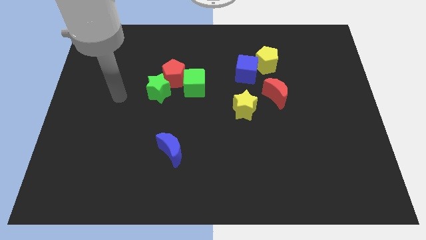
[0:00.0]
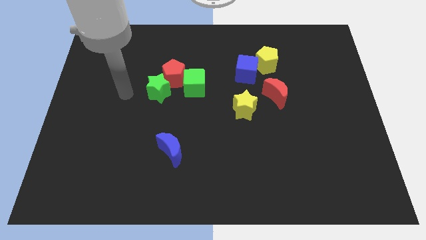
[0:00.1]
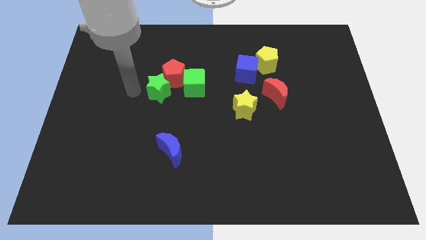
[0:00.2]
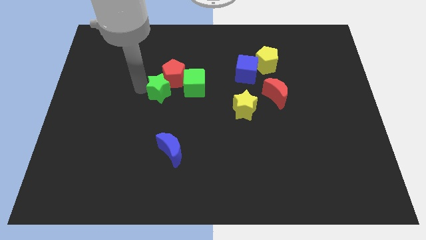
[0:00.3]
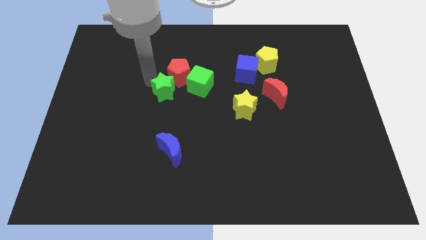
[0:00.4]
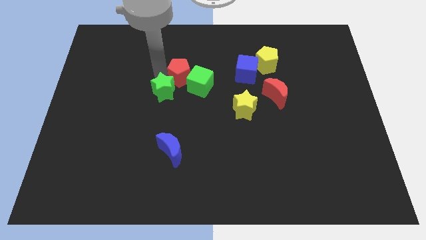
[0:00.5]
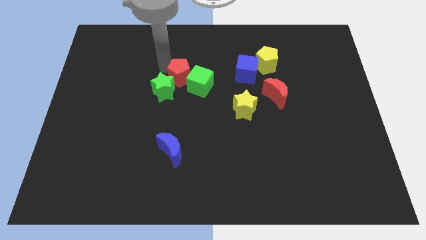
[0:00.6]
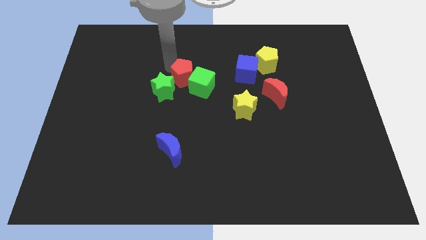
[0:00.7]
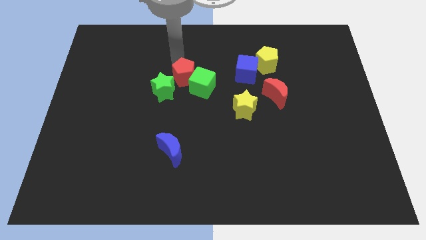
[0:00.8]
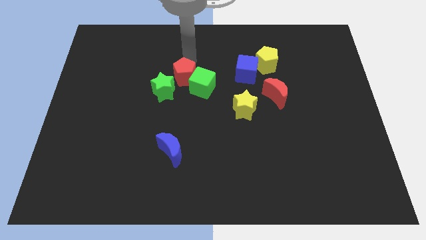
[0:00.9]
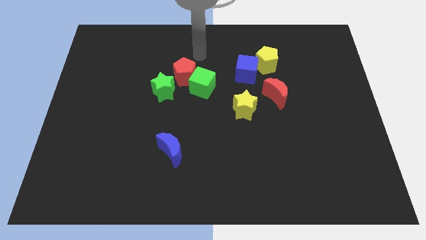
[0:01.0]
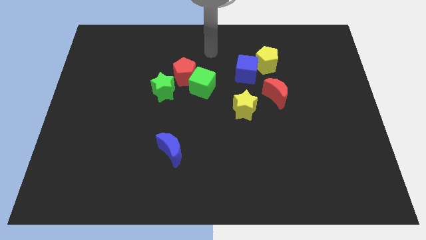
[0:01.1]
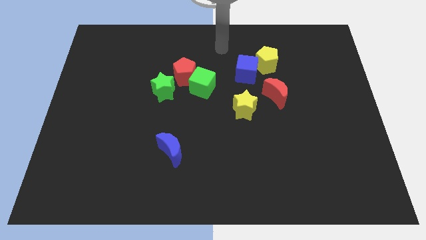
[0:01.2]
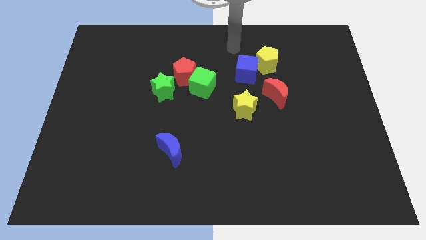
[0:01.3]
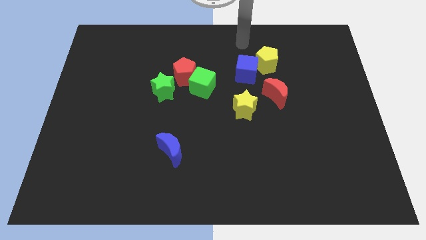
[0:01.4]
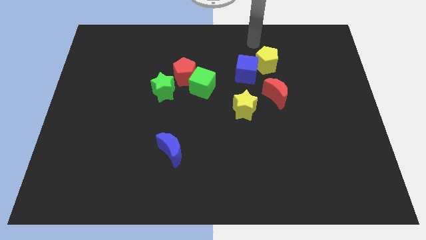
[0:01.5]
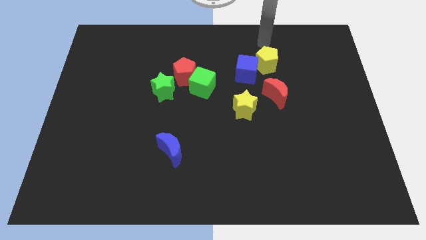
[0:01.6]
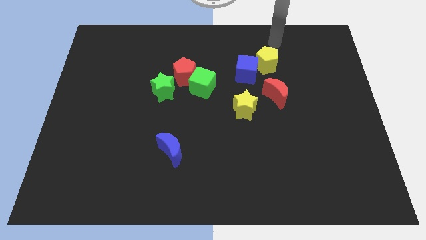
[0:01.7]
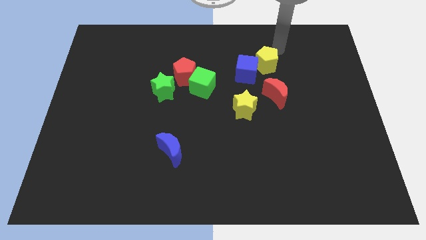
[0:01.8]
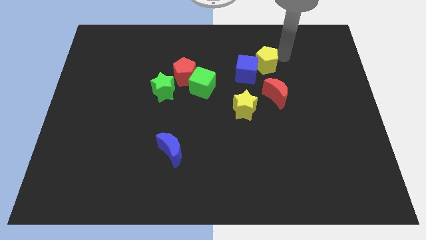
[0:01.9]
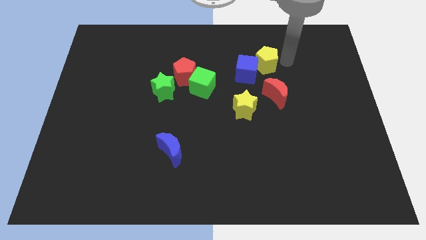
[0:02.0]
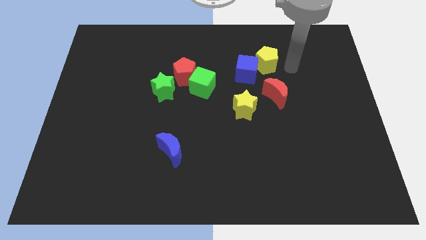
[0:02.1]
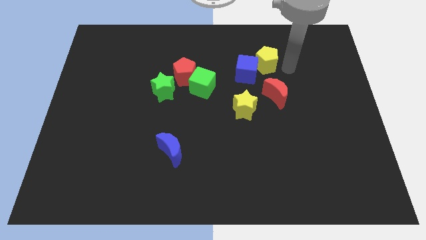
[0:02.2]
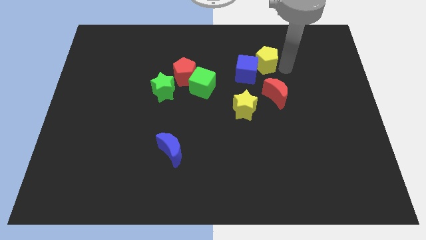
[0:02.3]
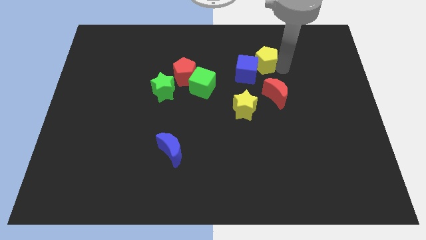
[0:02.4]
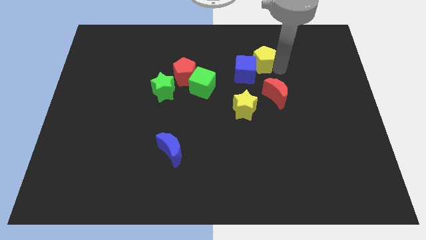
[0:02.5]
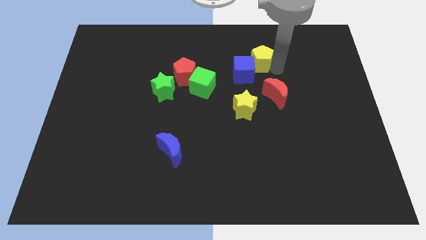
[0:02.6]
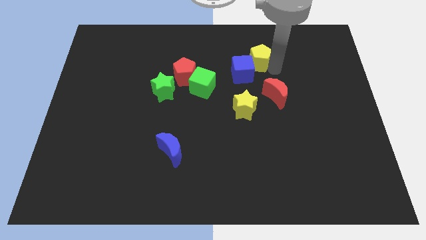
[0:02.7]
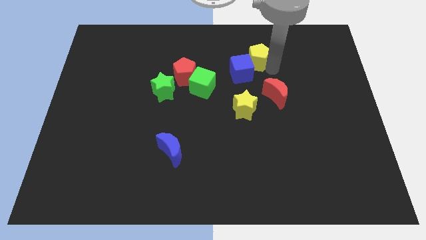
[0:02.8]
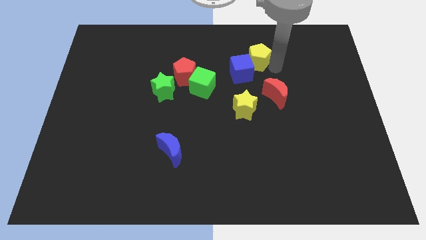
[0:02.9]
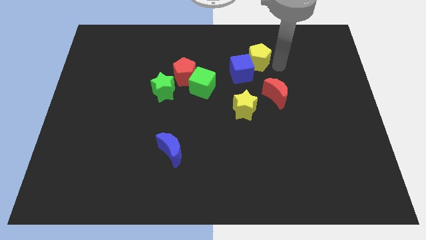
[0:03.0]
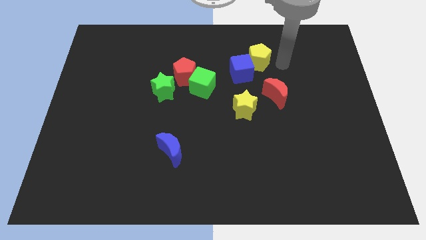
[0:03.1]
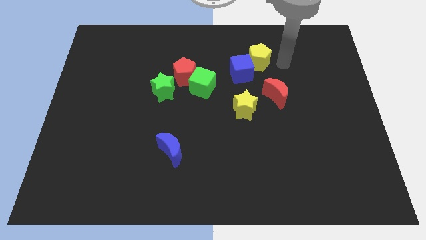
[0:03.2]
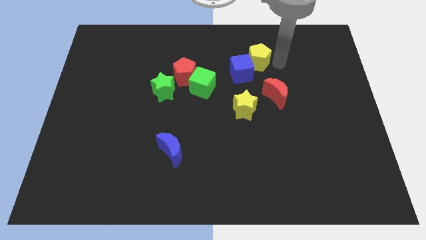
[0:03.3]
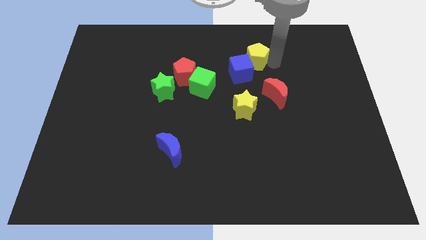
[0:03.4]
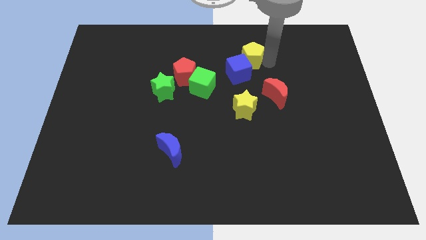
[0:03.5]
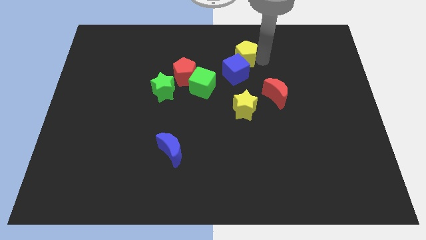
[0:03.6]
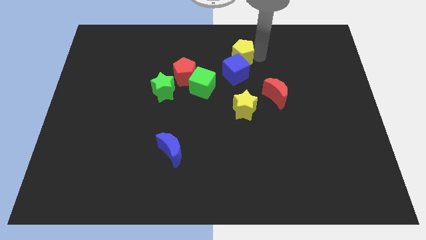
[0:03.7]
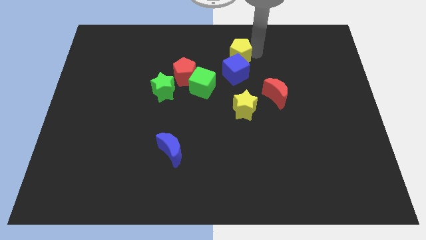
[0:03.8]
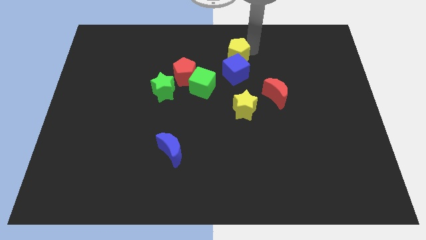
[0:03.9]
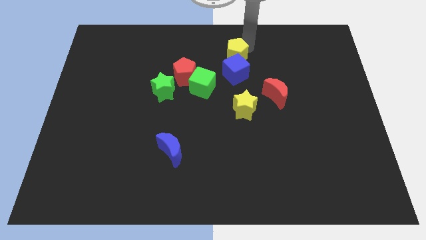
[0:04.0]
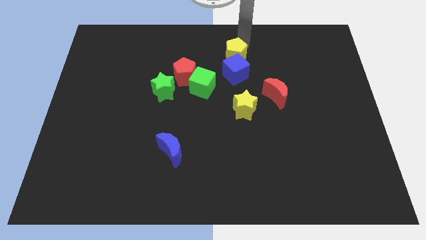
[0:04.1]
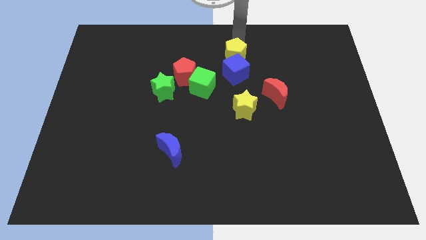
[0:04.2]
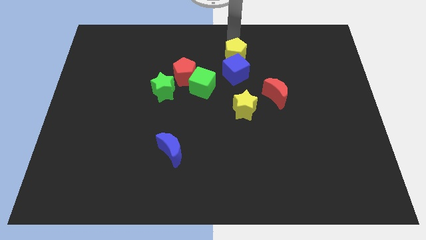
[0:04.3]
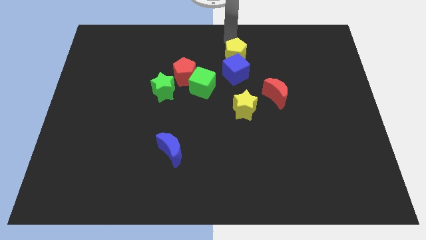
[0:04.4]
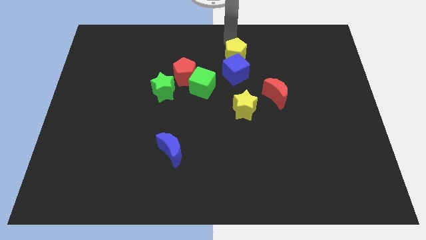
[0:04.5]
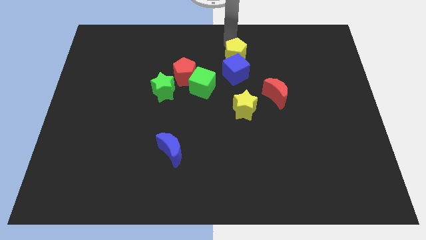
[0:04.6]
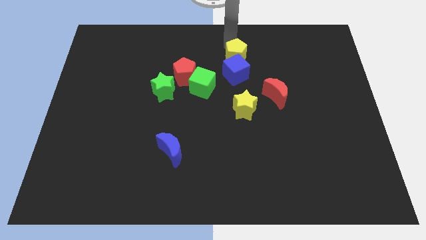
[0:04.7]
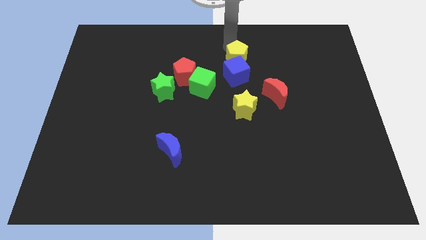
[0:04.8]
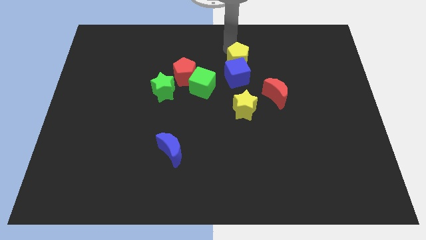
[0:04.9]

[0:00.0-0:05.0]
move the yellow pentagon to the top of the yellow star

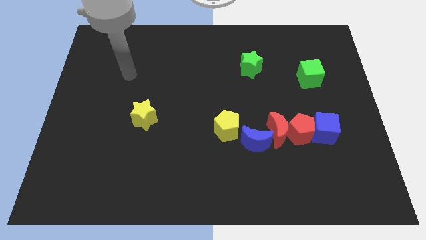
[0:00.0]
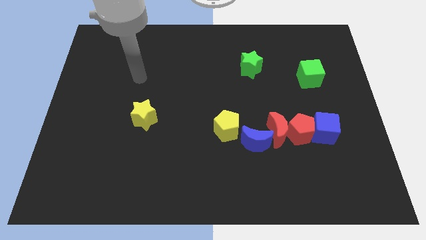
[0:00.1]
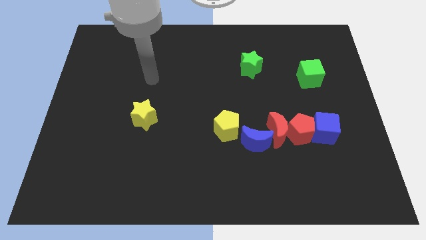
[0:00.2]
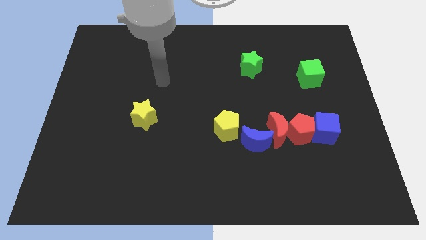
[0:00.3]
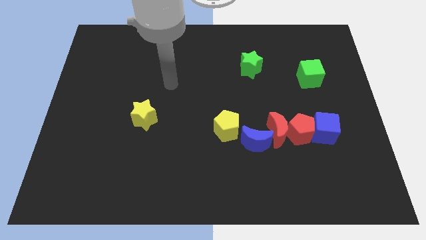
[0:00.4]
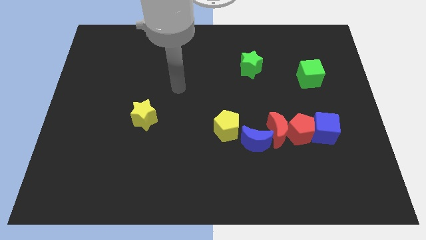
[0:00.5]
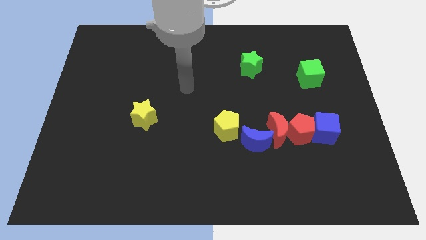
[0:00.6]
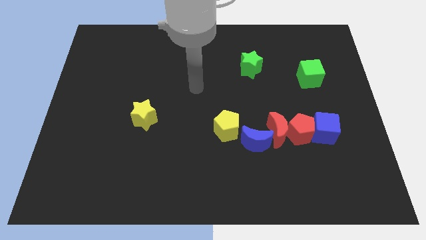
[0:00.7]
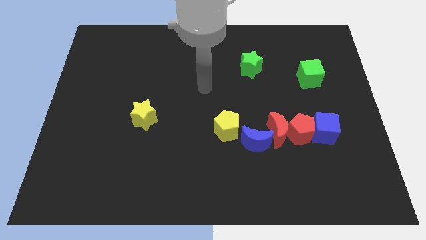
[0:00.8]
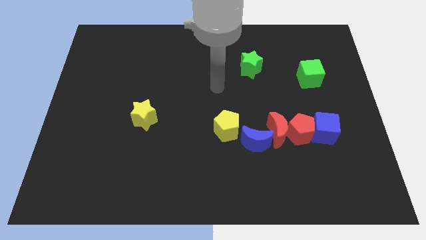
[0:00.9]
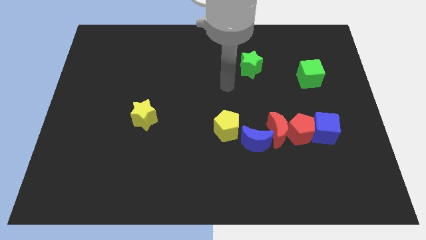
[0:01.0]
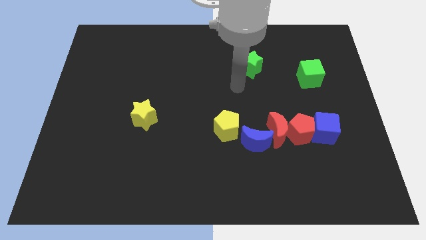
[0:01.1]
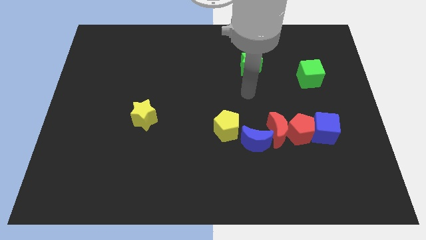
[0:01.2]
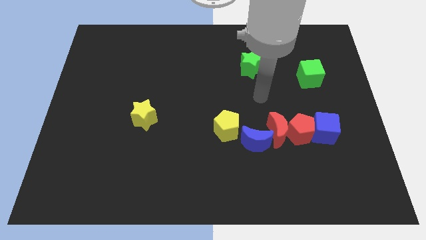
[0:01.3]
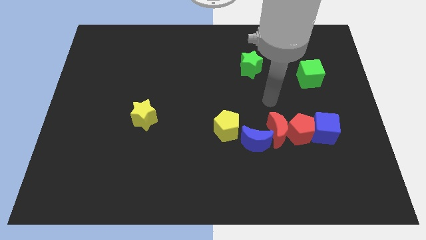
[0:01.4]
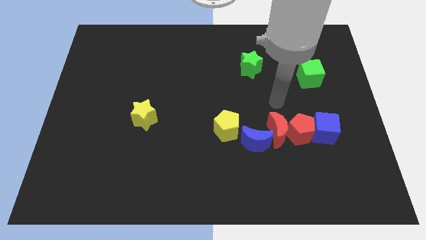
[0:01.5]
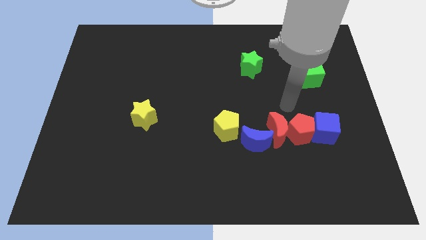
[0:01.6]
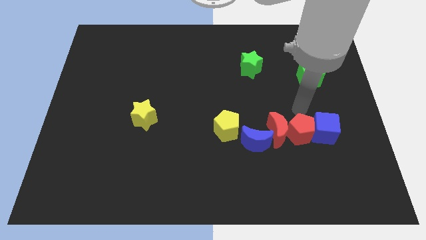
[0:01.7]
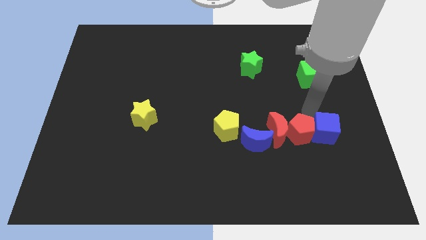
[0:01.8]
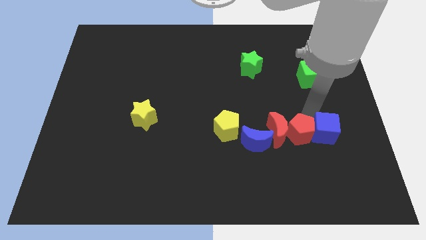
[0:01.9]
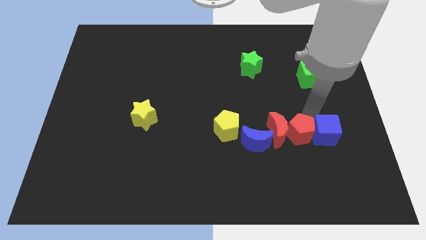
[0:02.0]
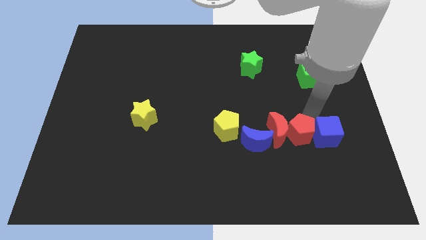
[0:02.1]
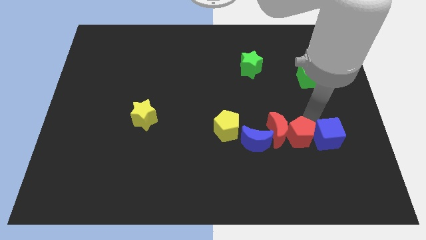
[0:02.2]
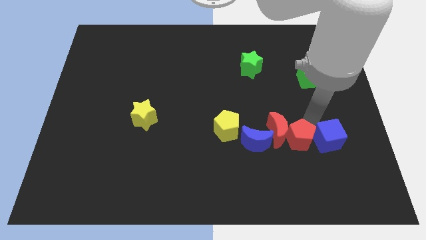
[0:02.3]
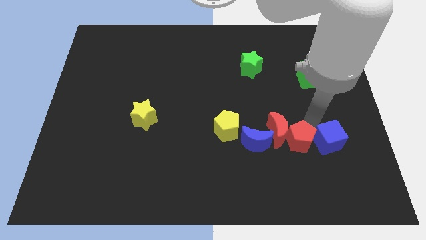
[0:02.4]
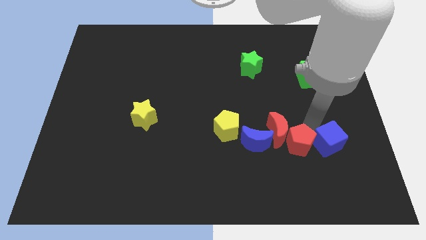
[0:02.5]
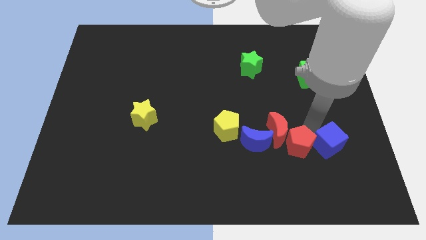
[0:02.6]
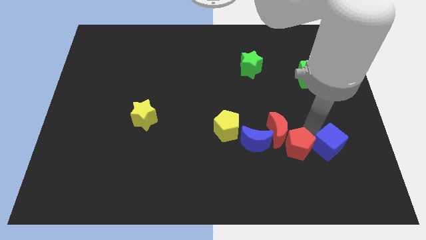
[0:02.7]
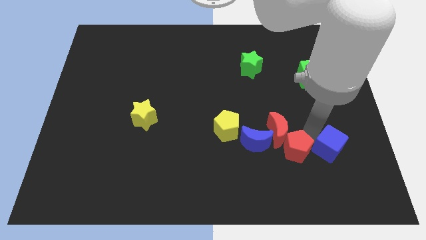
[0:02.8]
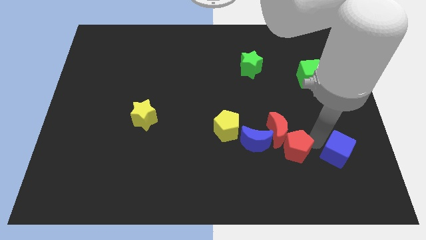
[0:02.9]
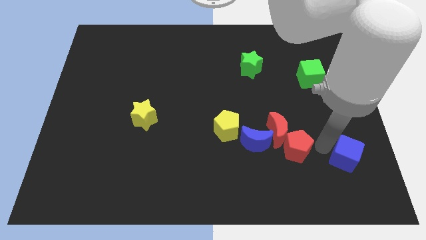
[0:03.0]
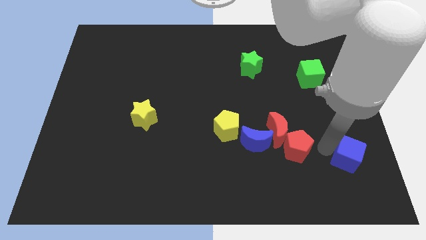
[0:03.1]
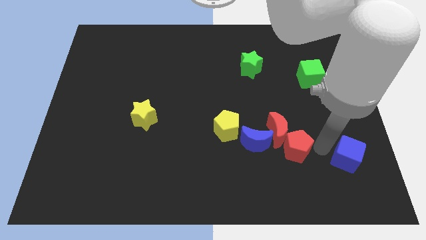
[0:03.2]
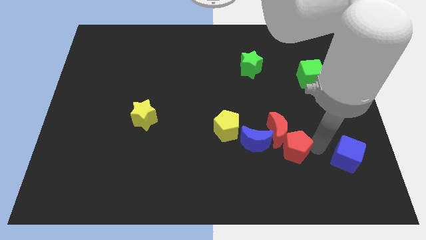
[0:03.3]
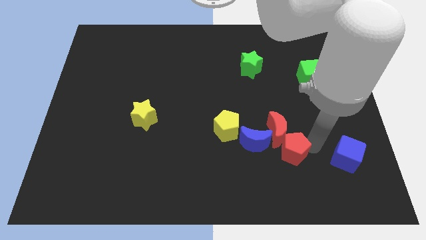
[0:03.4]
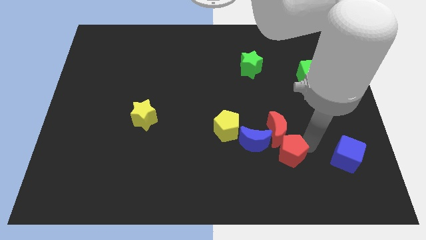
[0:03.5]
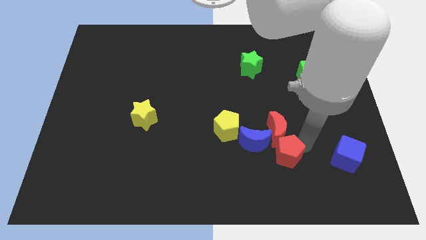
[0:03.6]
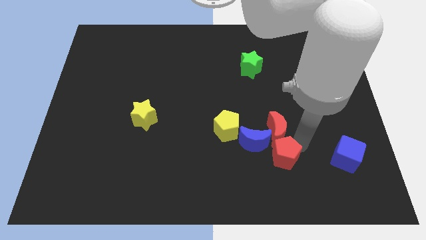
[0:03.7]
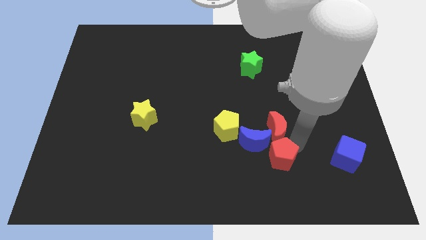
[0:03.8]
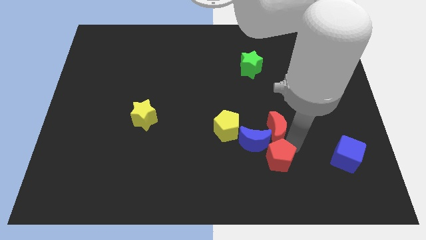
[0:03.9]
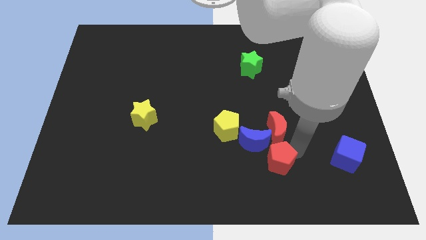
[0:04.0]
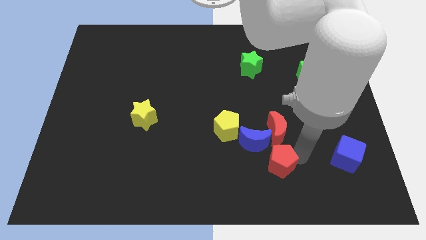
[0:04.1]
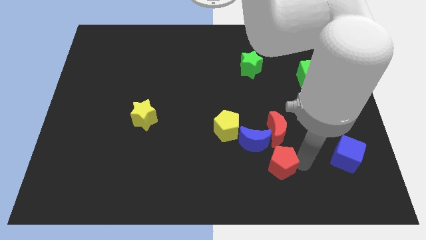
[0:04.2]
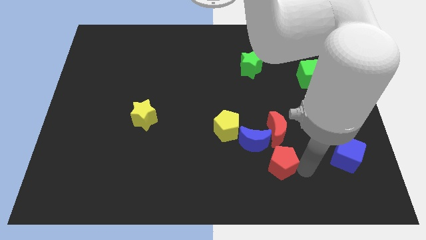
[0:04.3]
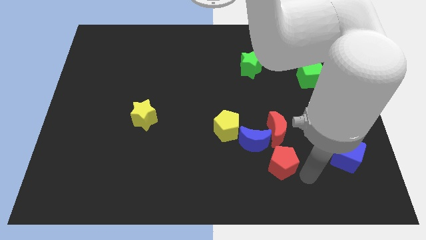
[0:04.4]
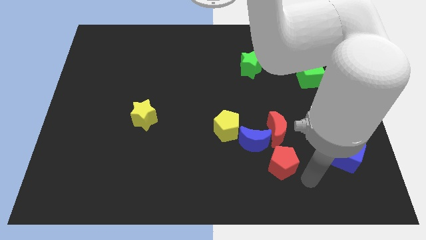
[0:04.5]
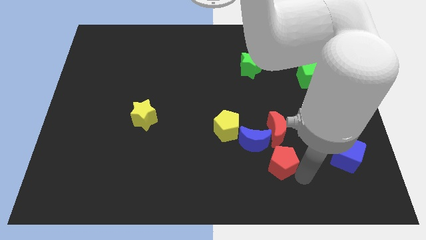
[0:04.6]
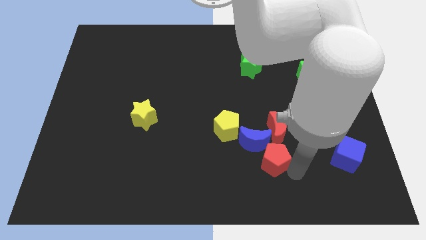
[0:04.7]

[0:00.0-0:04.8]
push the red pentagon diagonally down and to the right of the yellow pentagon
